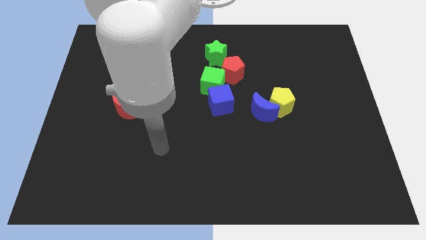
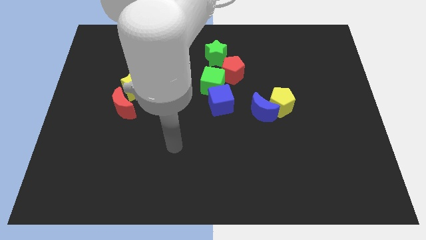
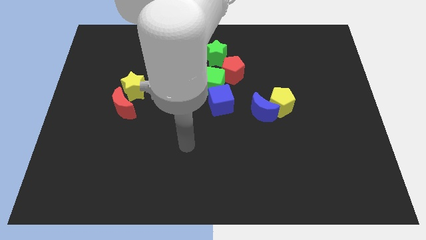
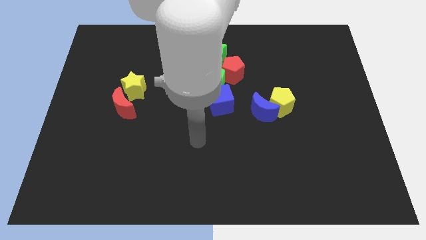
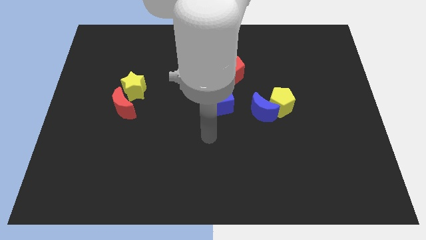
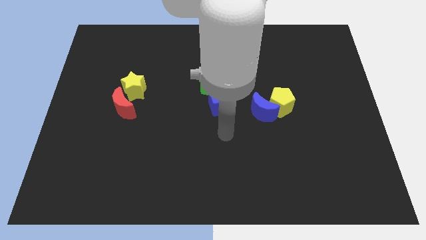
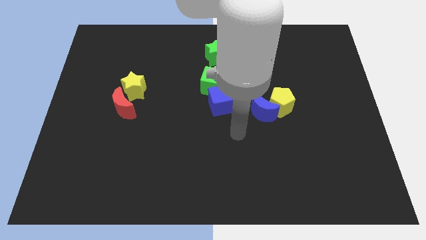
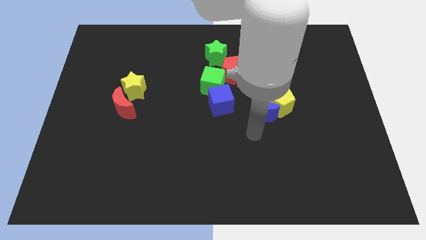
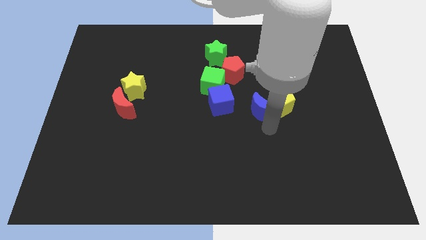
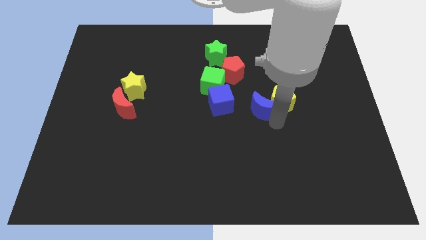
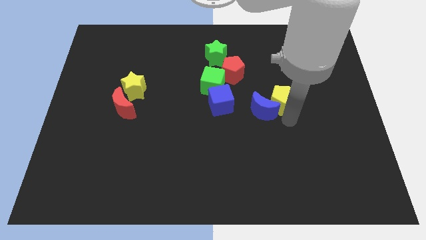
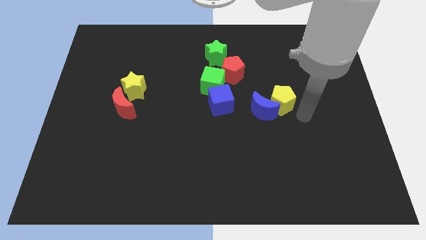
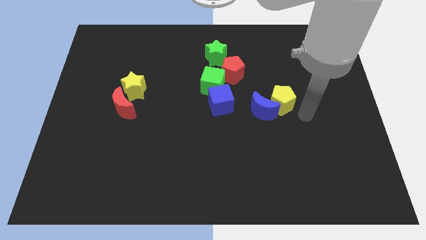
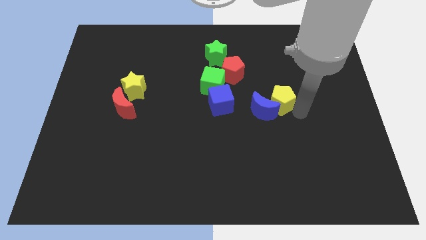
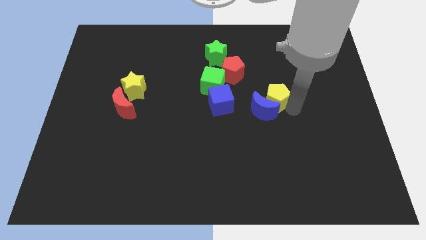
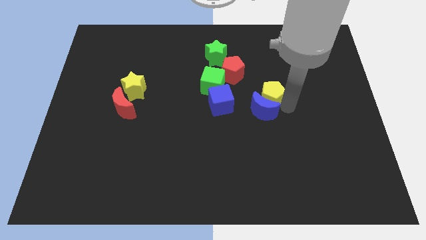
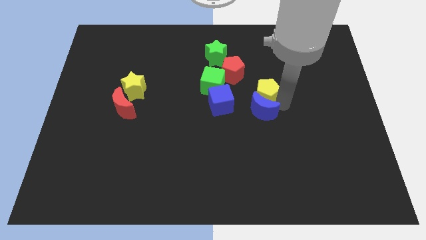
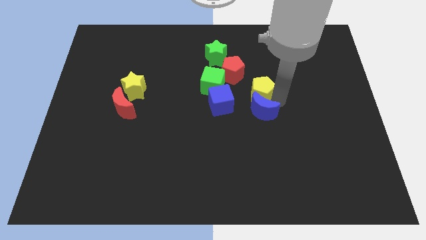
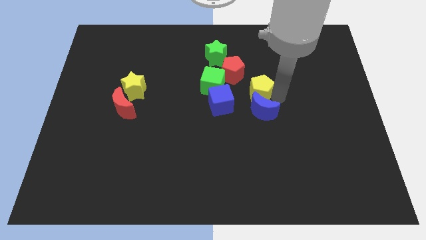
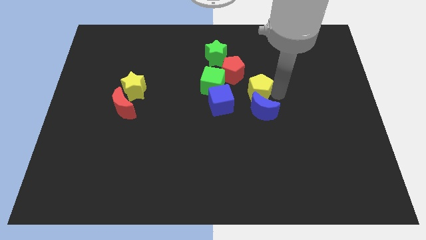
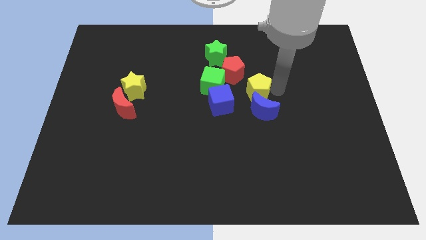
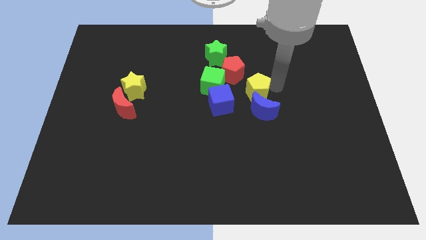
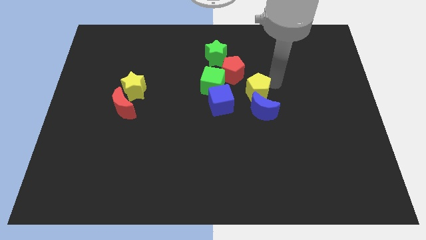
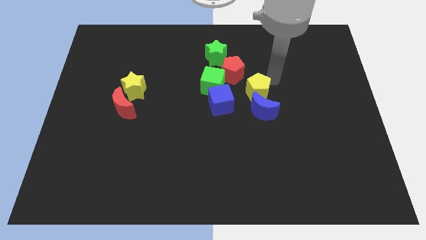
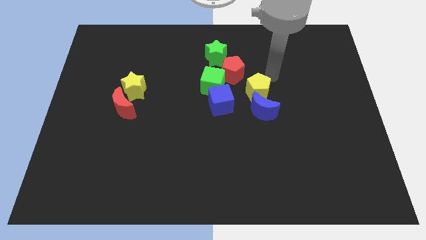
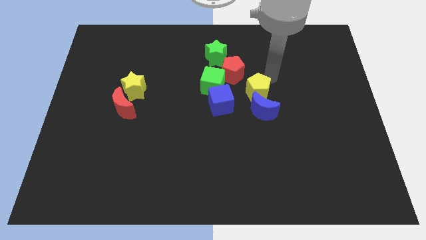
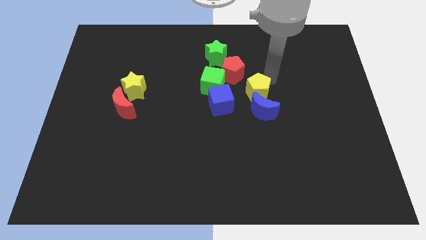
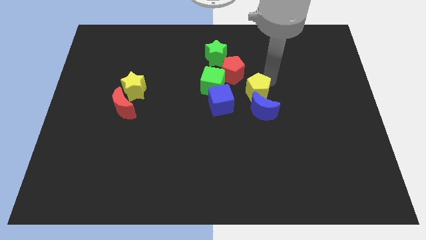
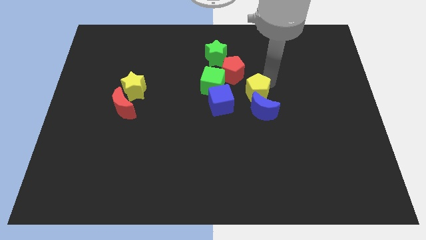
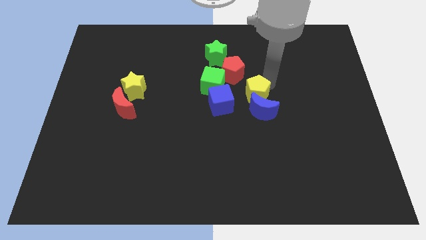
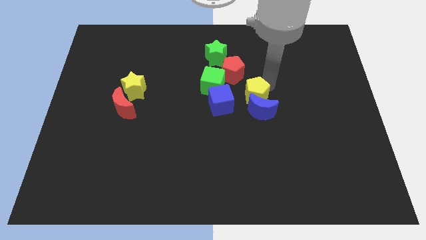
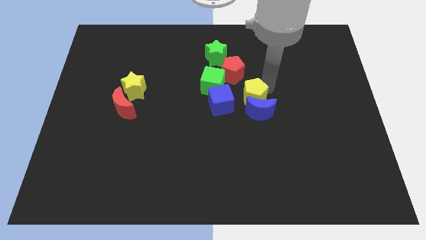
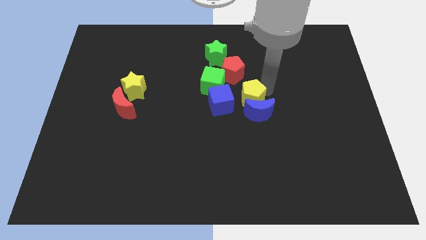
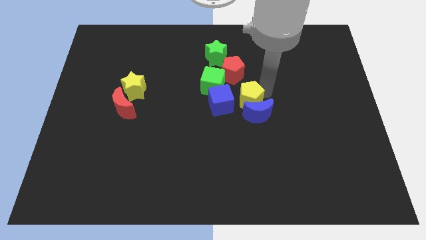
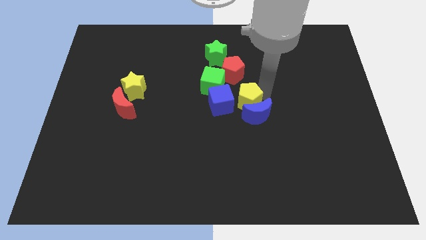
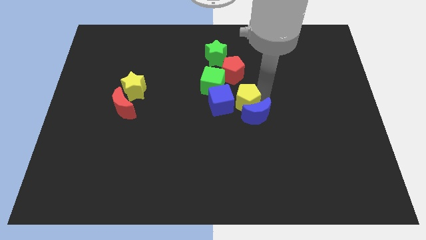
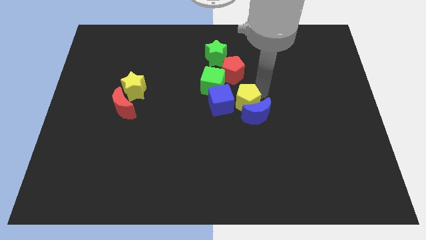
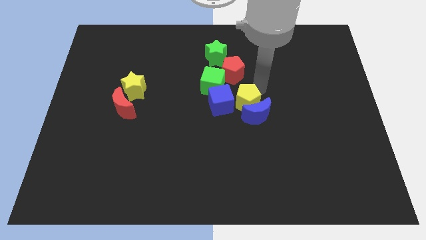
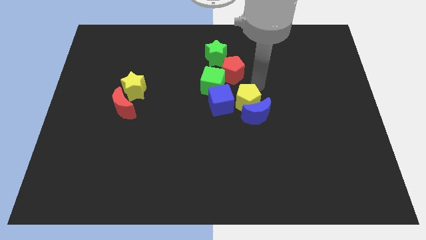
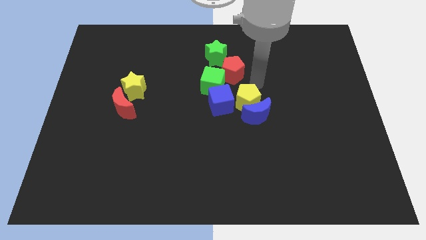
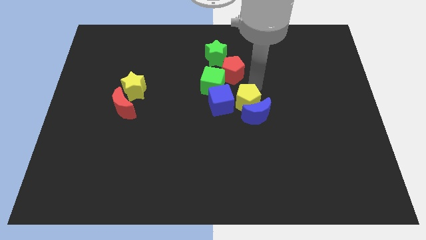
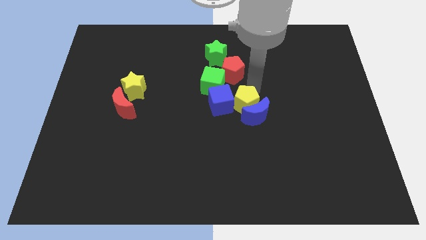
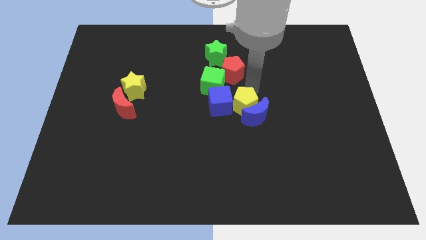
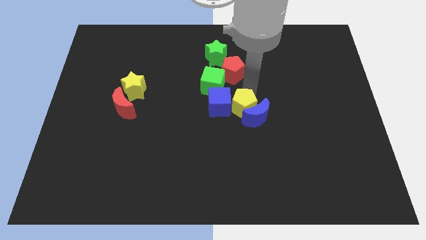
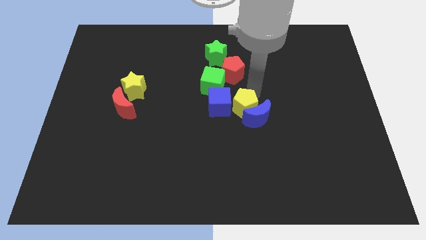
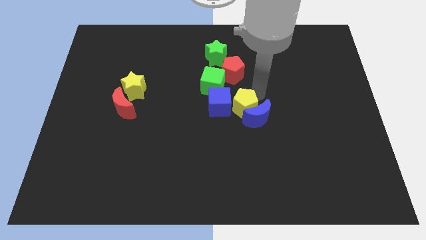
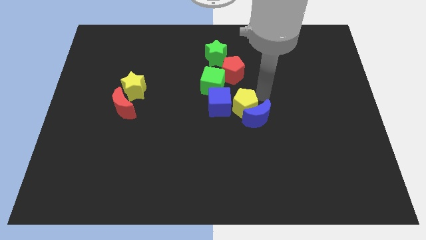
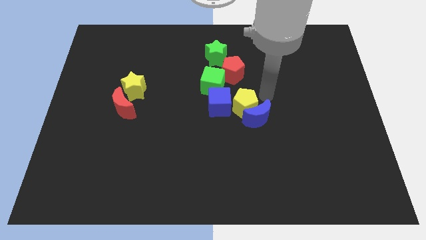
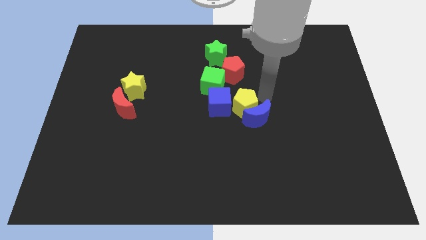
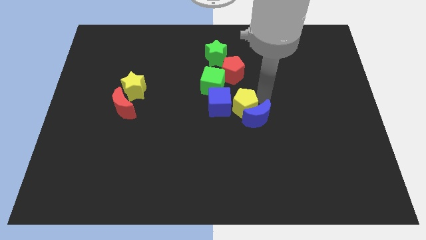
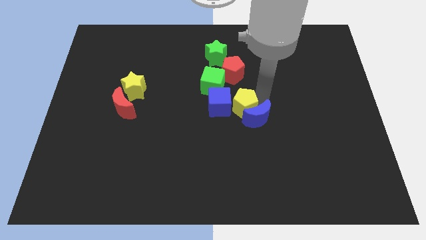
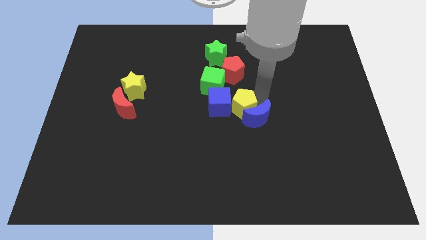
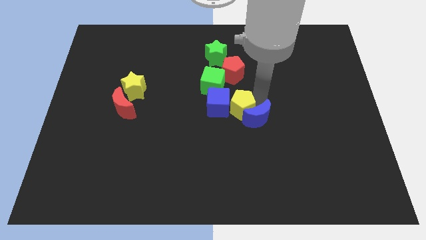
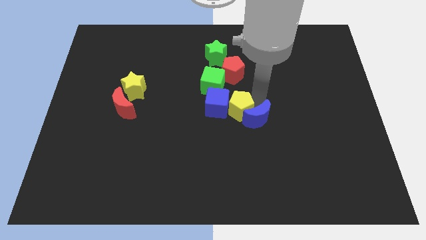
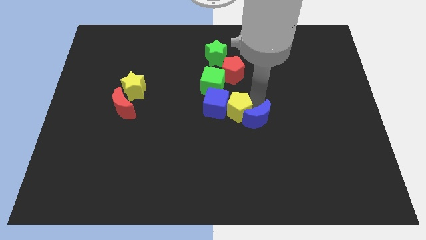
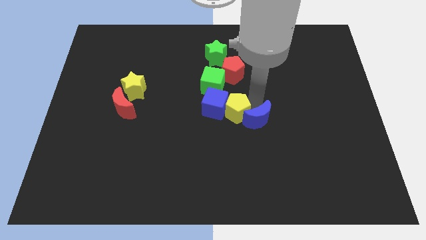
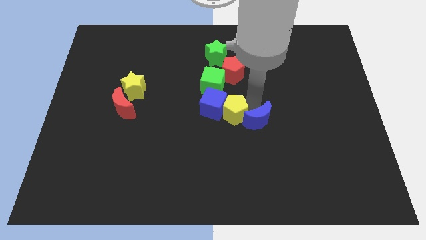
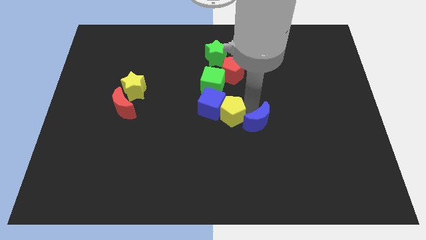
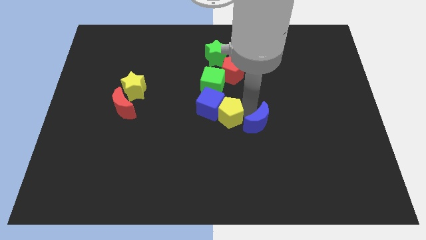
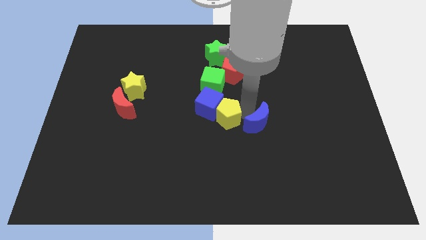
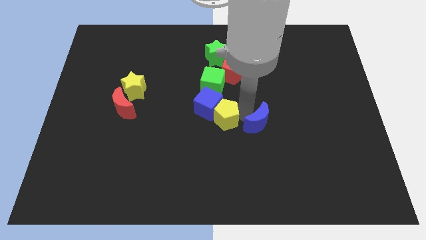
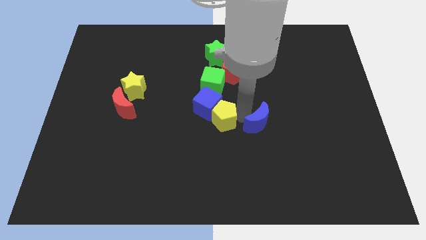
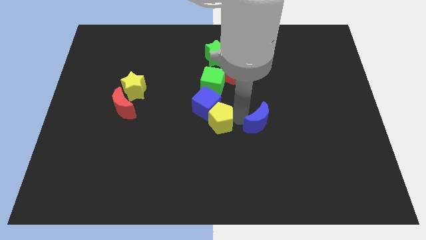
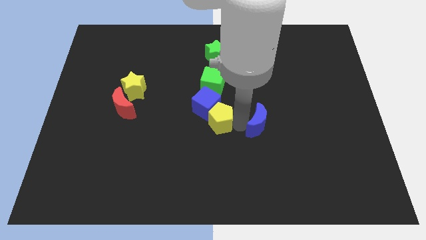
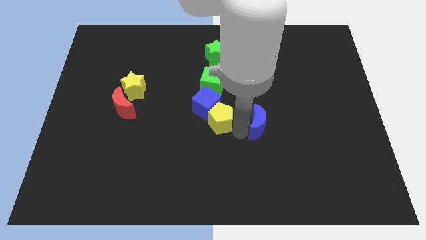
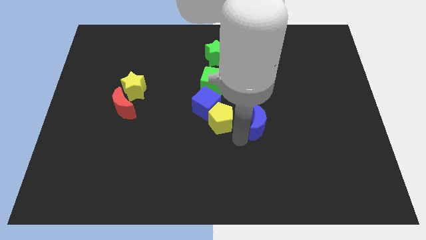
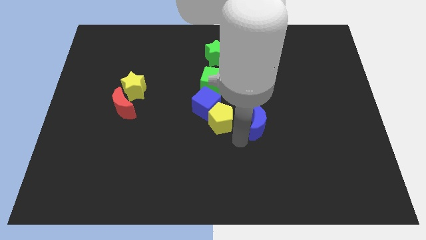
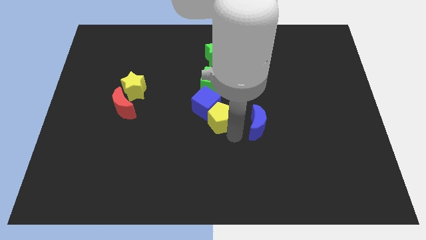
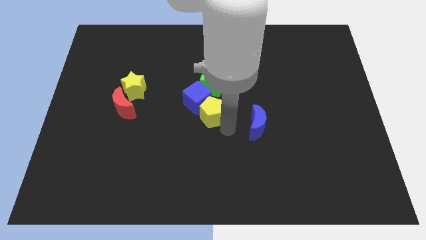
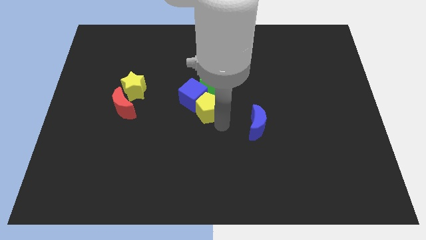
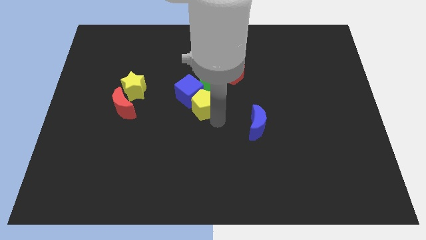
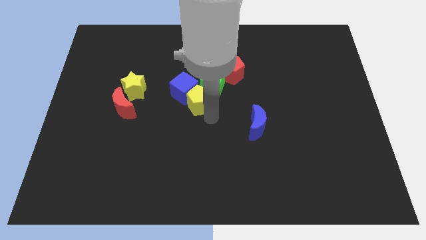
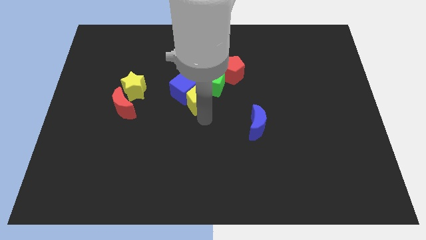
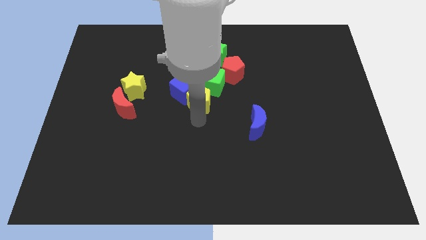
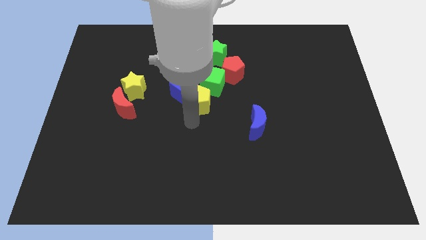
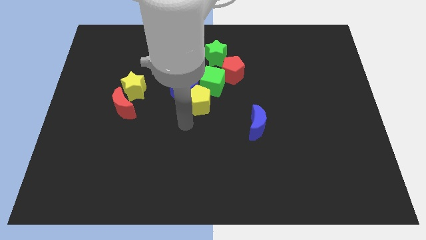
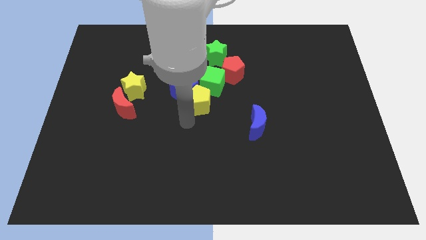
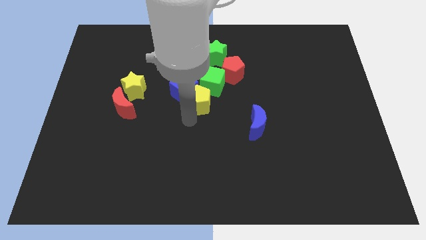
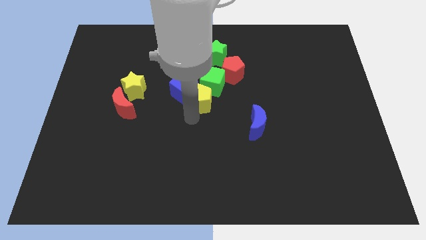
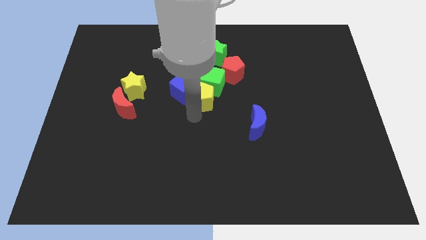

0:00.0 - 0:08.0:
push the yellow pentagon next to the green cube
